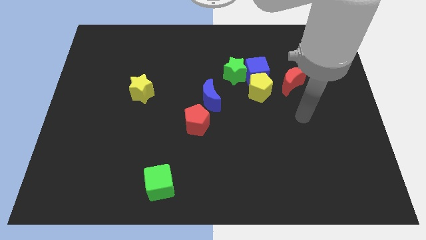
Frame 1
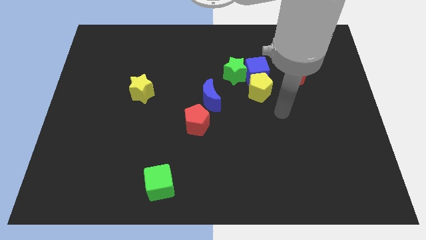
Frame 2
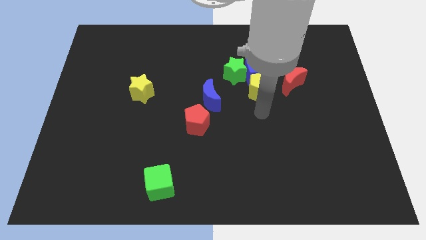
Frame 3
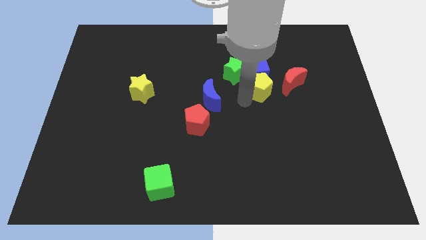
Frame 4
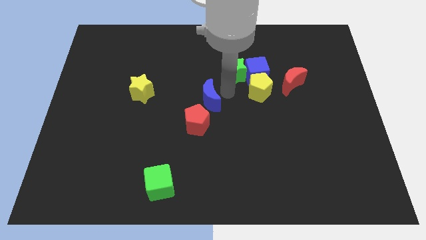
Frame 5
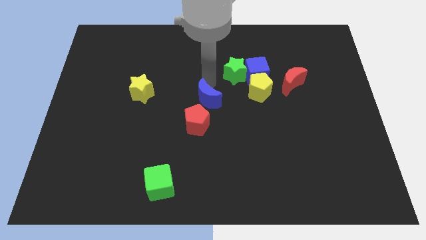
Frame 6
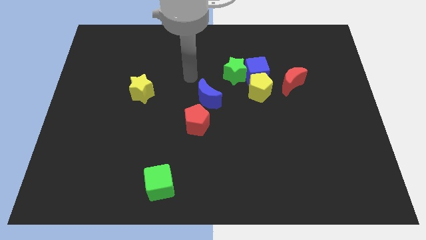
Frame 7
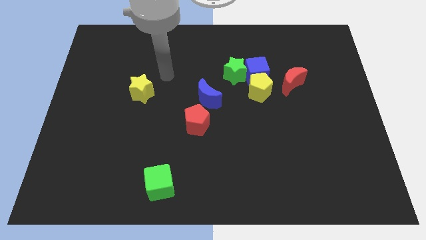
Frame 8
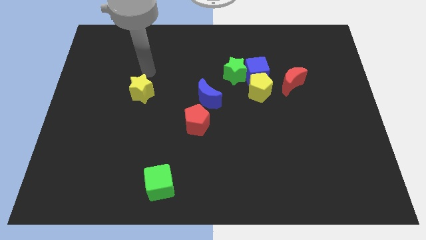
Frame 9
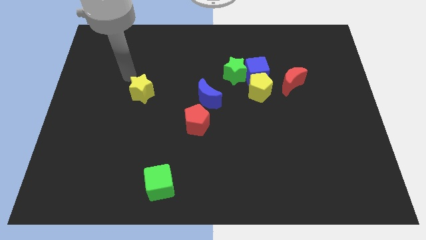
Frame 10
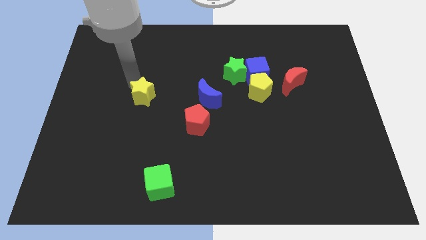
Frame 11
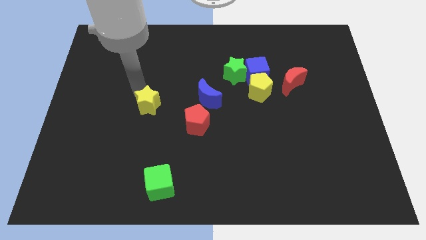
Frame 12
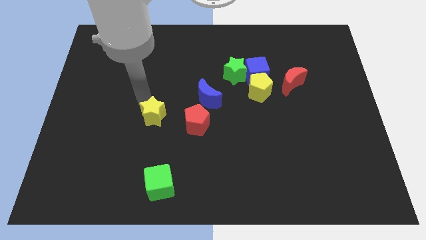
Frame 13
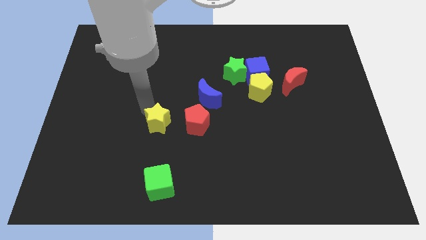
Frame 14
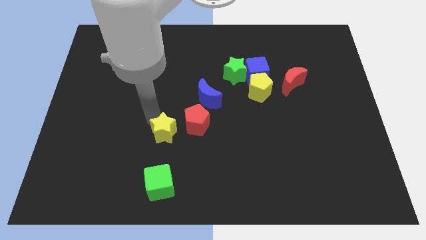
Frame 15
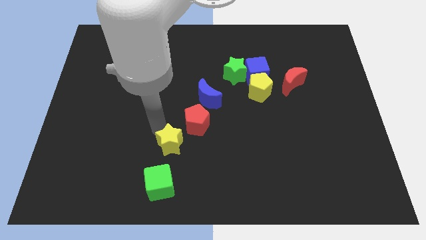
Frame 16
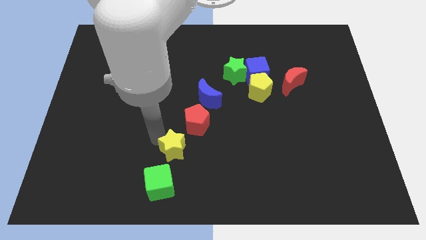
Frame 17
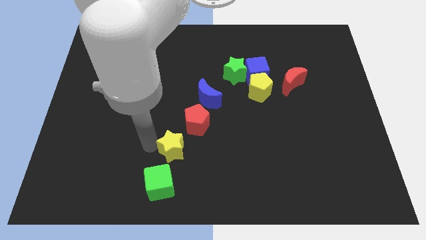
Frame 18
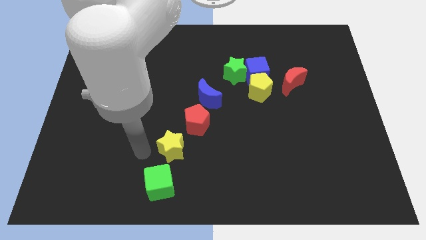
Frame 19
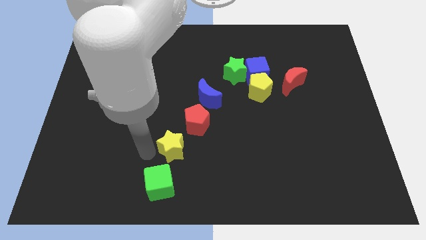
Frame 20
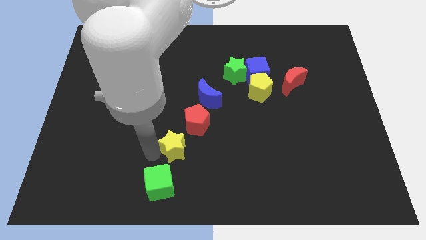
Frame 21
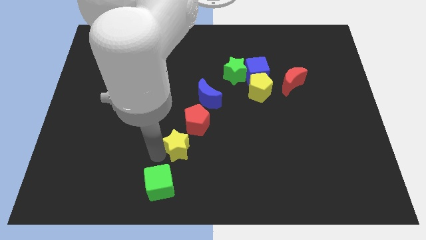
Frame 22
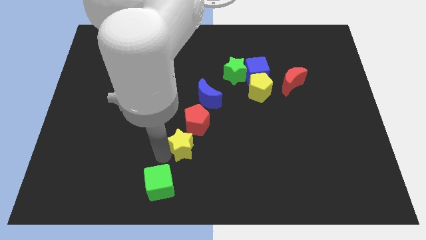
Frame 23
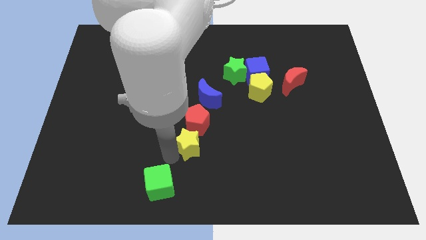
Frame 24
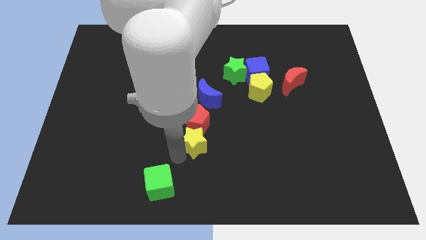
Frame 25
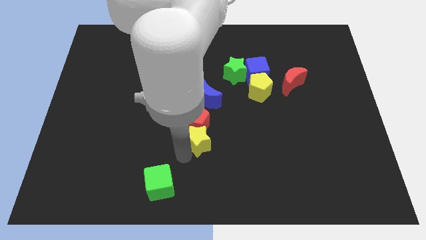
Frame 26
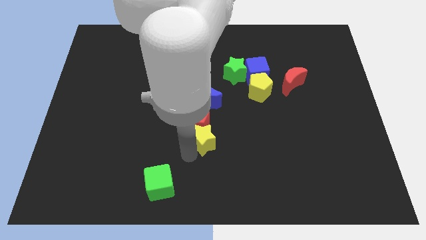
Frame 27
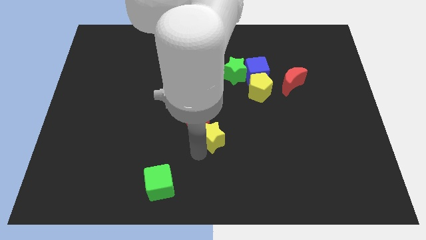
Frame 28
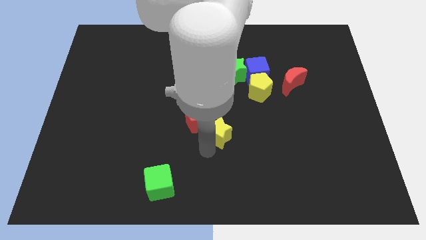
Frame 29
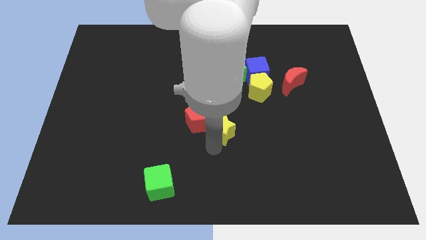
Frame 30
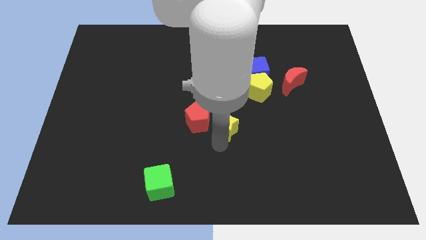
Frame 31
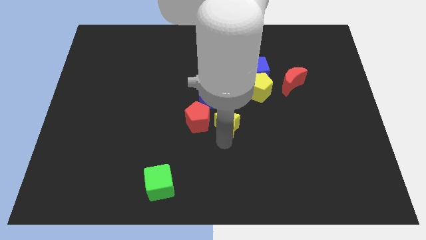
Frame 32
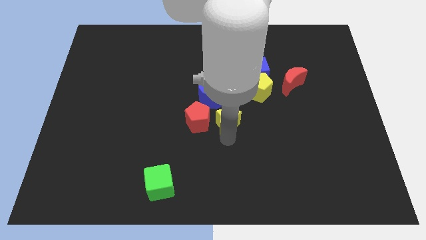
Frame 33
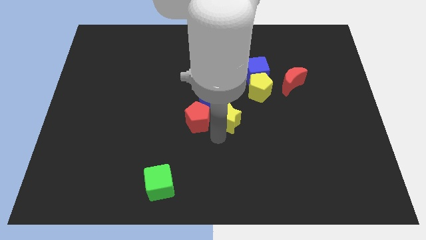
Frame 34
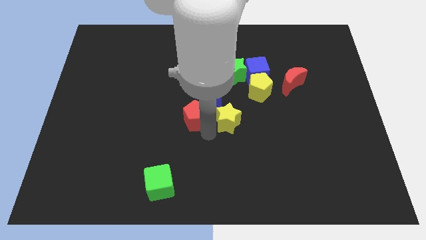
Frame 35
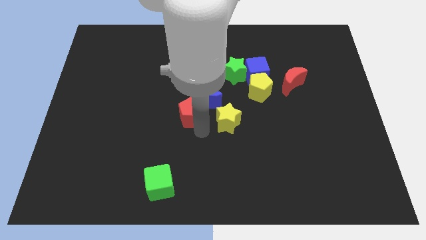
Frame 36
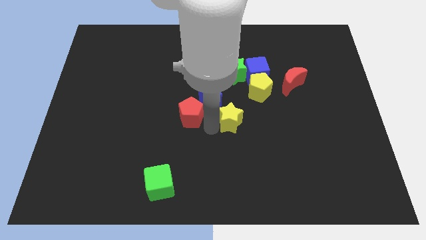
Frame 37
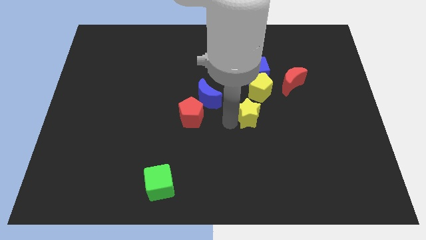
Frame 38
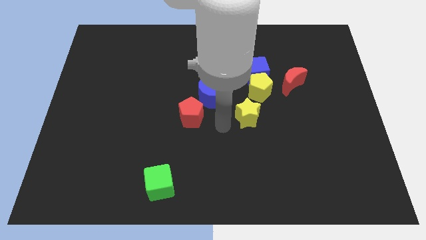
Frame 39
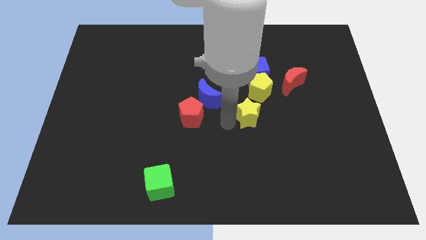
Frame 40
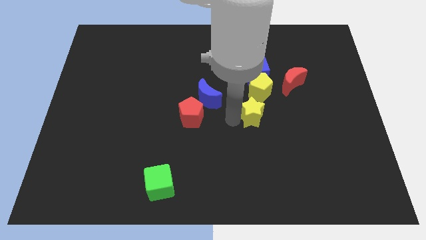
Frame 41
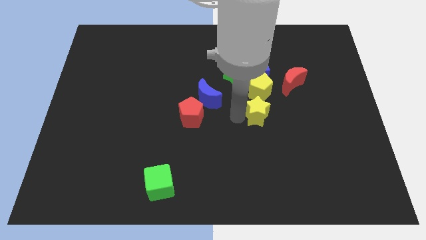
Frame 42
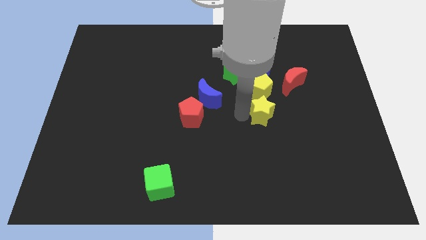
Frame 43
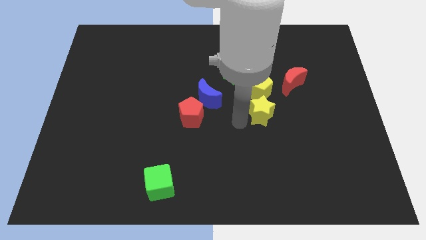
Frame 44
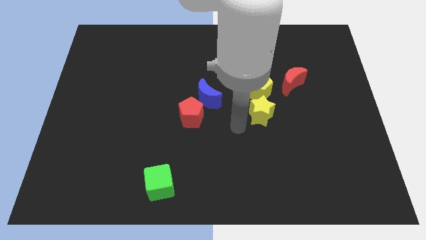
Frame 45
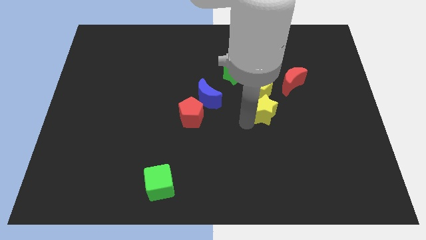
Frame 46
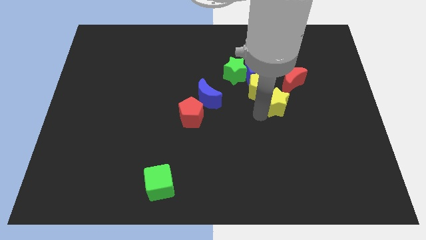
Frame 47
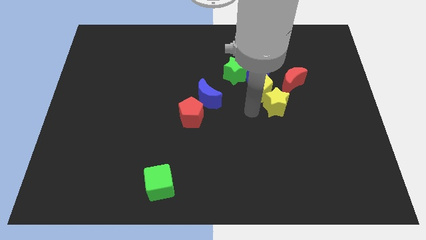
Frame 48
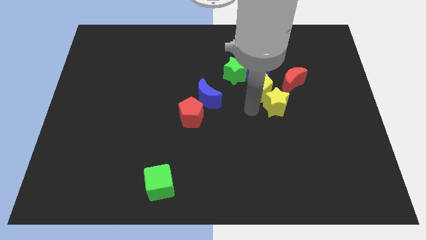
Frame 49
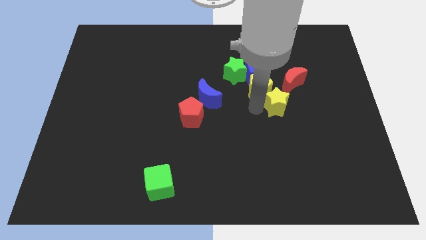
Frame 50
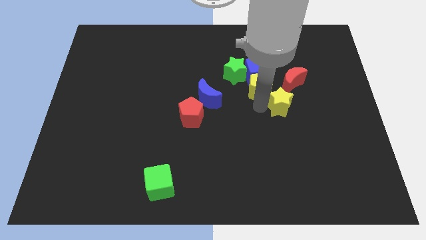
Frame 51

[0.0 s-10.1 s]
move the yellow star just right of the yellow pentagon

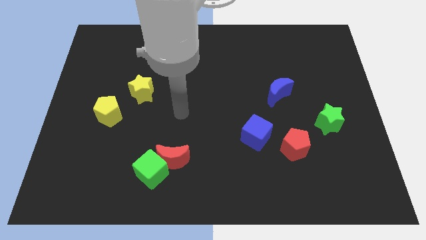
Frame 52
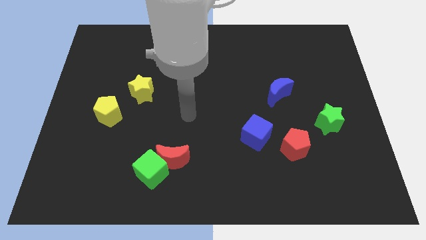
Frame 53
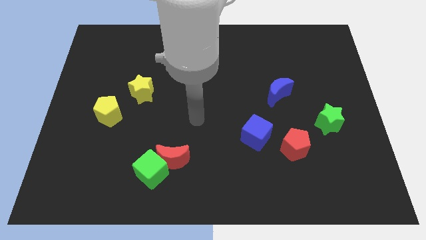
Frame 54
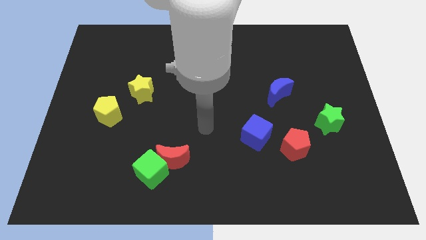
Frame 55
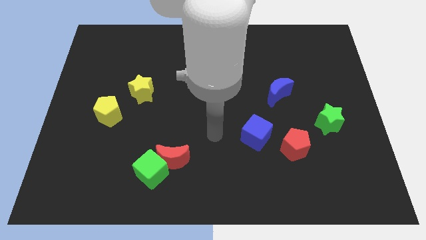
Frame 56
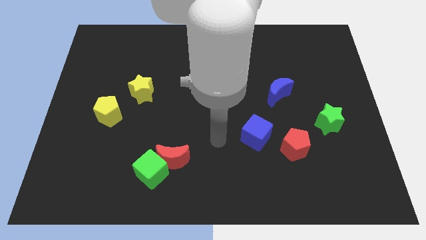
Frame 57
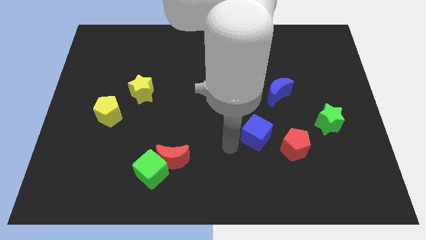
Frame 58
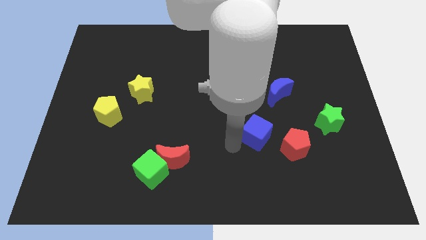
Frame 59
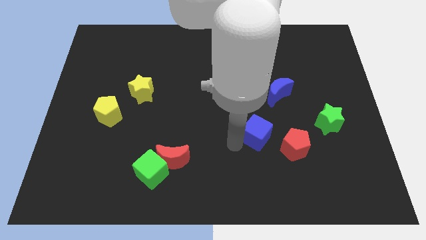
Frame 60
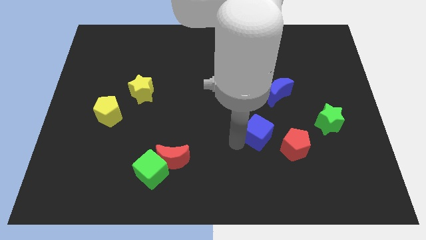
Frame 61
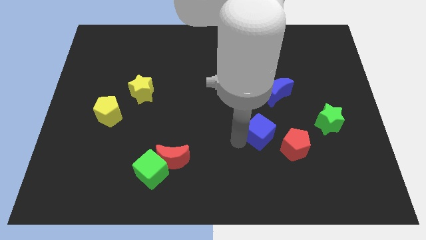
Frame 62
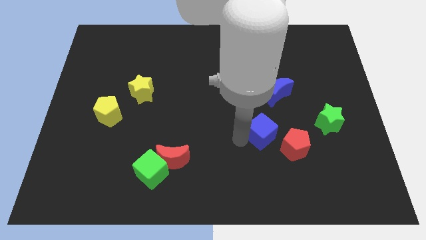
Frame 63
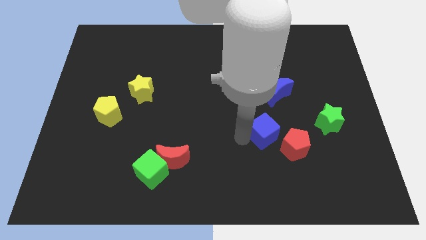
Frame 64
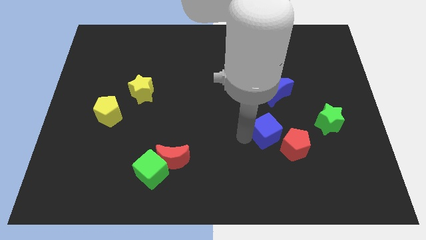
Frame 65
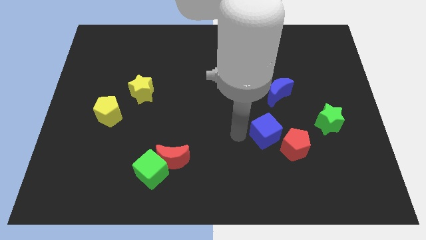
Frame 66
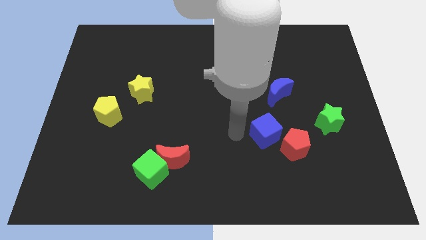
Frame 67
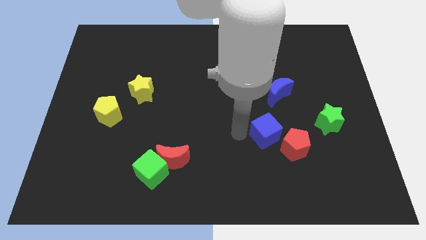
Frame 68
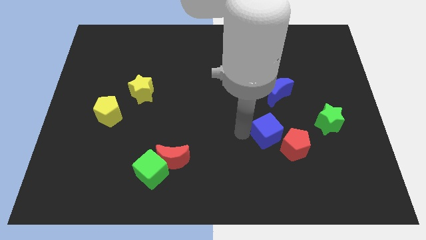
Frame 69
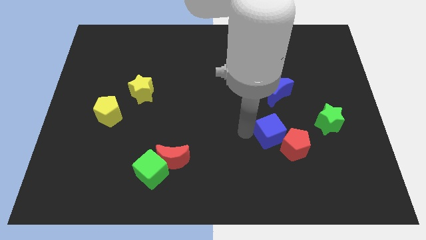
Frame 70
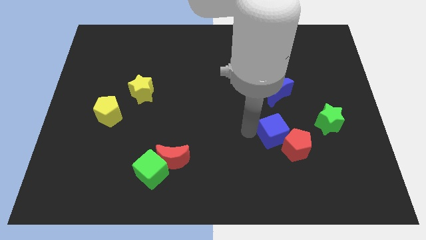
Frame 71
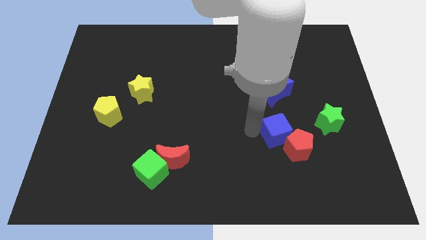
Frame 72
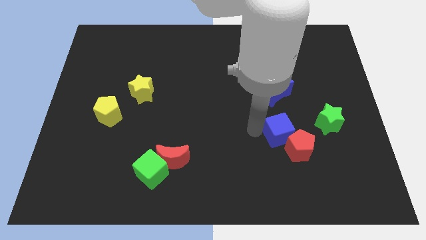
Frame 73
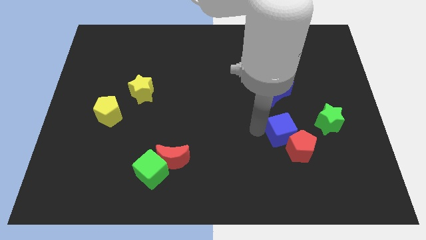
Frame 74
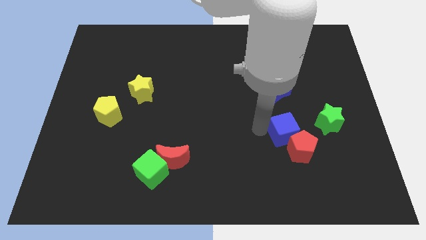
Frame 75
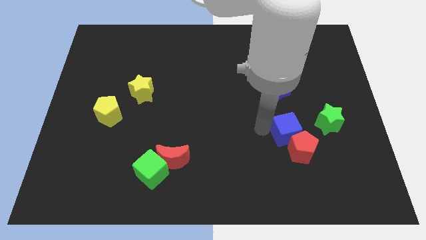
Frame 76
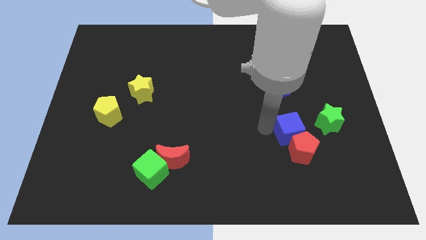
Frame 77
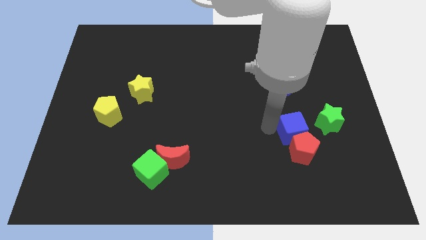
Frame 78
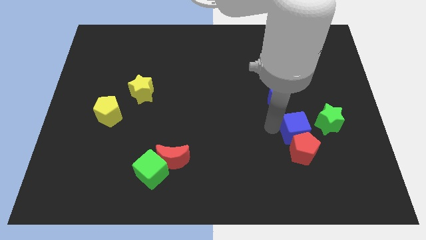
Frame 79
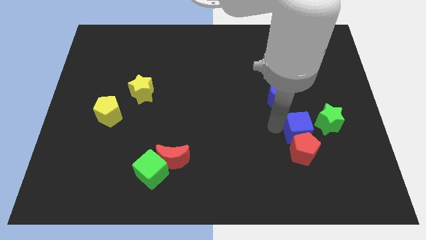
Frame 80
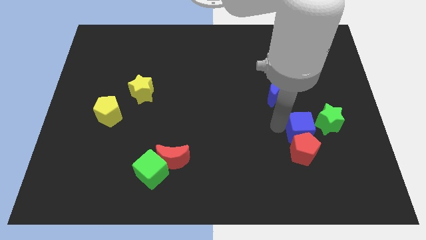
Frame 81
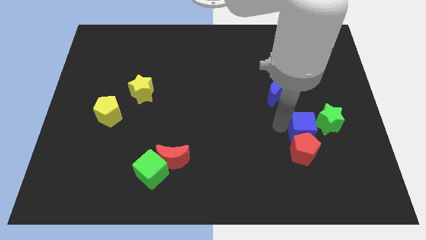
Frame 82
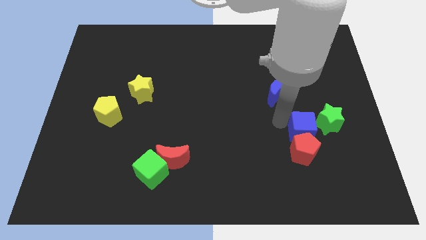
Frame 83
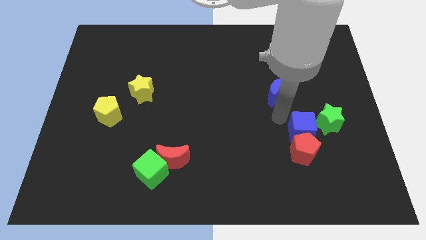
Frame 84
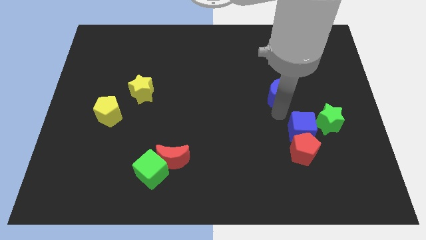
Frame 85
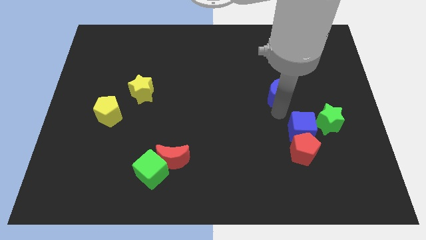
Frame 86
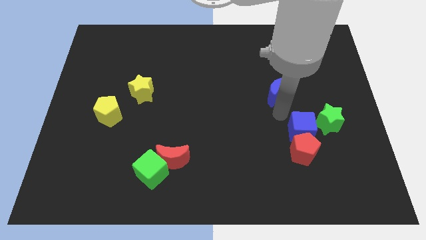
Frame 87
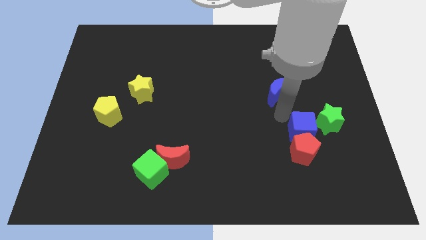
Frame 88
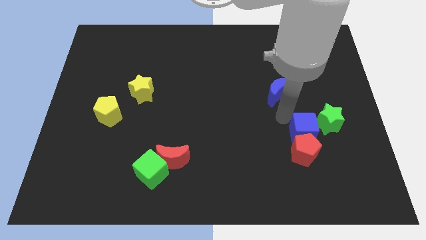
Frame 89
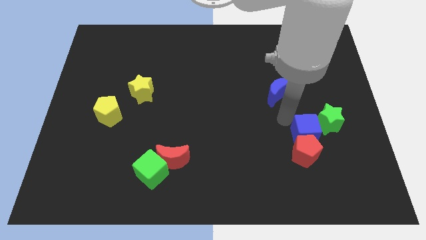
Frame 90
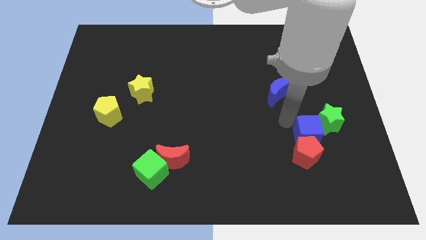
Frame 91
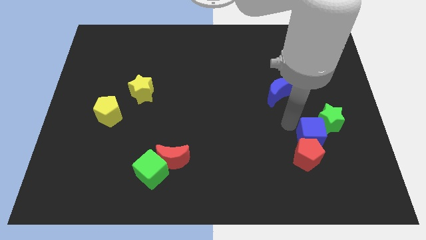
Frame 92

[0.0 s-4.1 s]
push the blue cube to the bottom side of the green star
